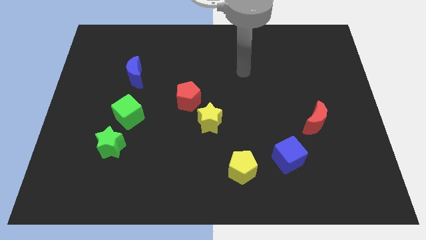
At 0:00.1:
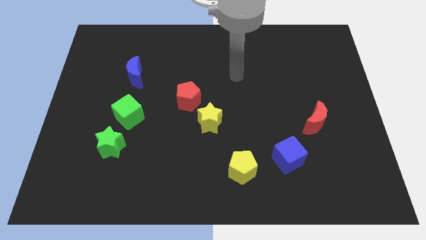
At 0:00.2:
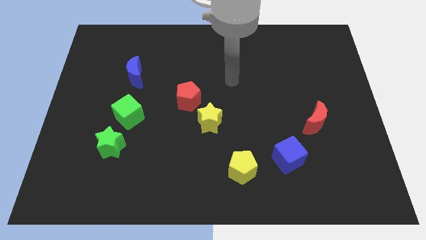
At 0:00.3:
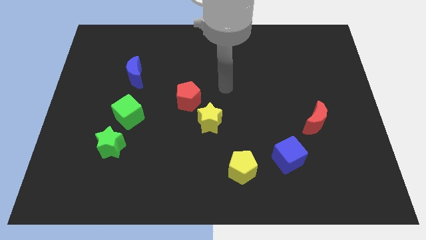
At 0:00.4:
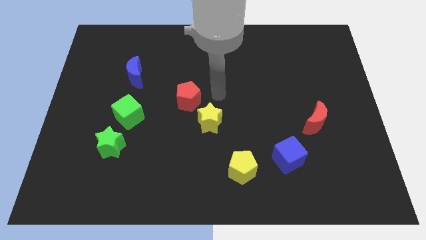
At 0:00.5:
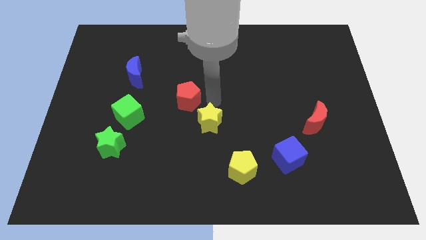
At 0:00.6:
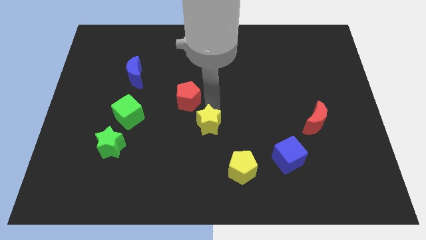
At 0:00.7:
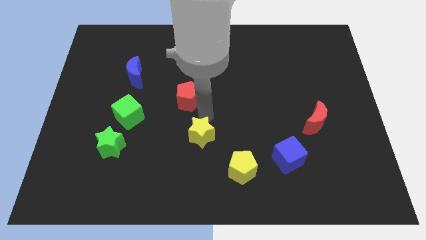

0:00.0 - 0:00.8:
pull the red pentagon apart from the yellow star

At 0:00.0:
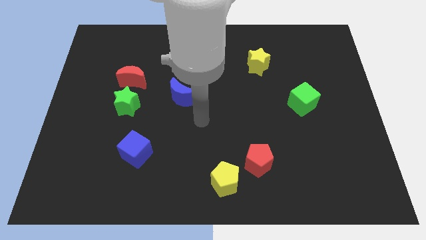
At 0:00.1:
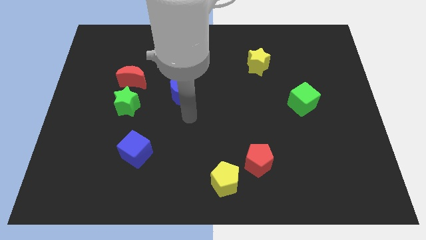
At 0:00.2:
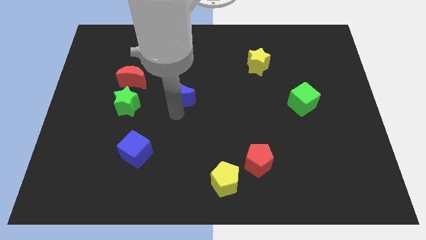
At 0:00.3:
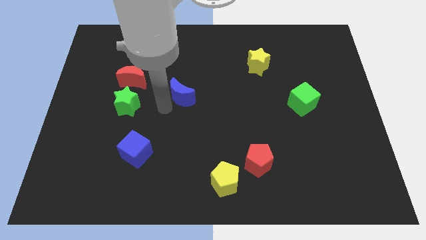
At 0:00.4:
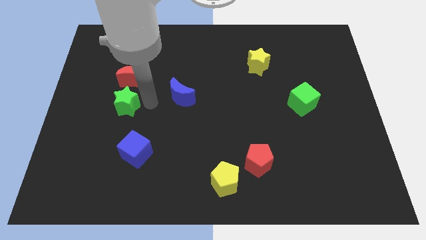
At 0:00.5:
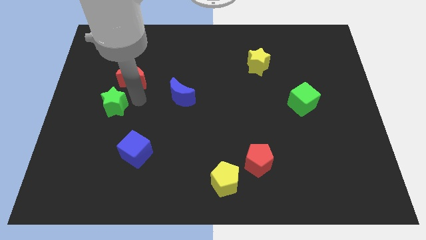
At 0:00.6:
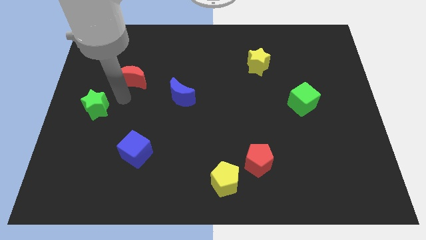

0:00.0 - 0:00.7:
pull the red moon apart from the green star

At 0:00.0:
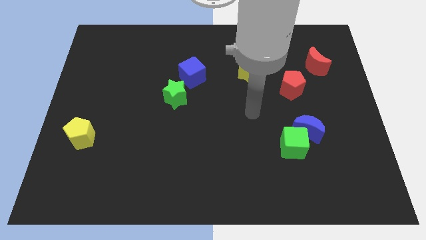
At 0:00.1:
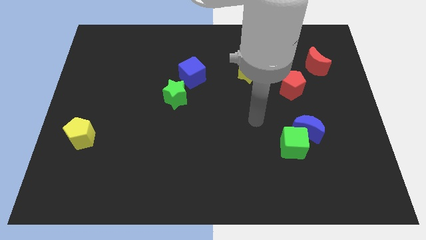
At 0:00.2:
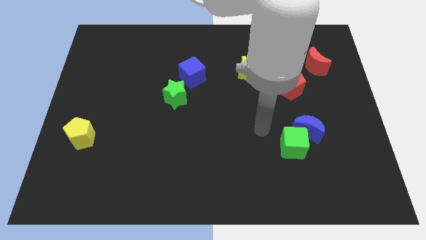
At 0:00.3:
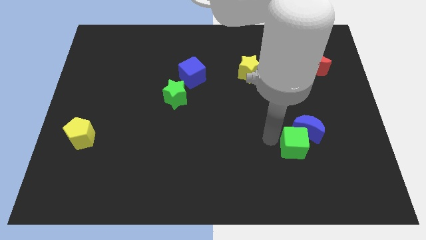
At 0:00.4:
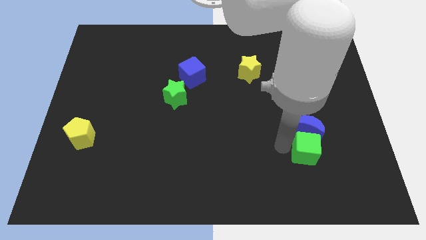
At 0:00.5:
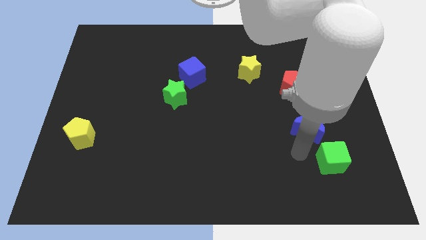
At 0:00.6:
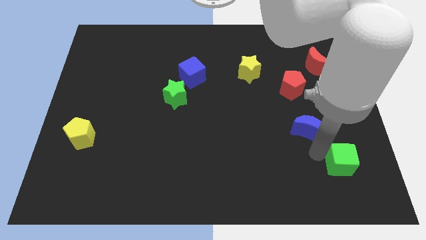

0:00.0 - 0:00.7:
move the blue moon away from the green cube

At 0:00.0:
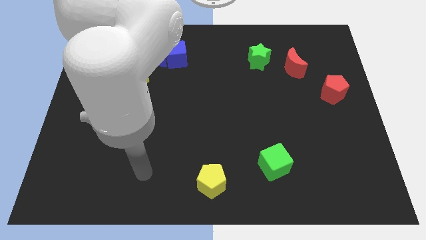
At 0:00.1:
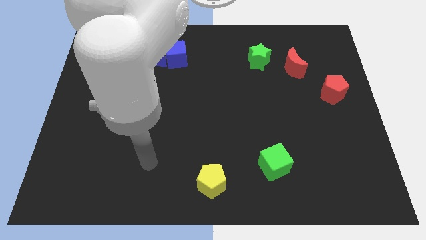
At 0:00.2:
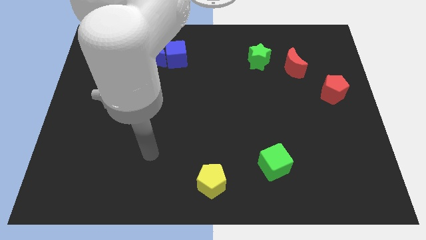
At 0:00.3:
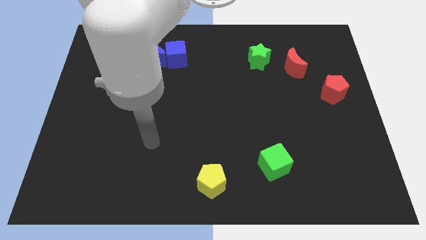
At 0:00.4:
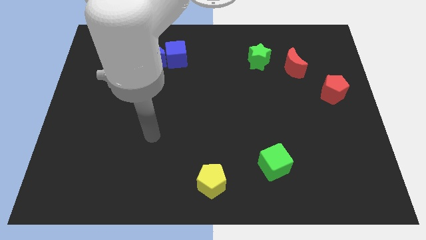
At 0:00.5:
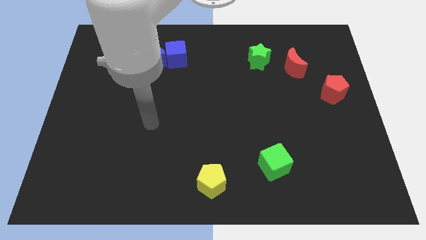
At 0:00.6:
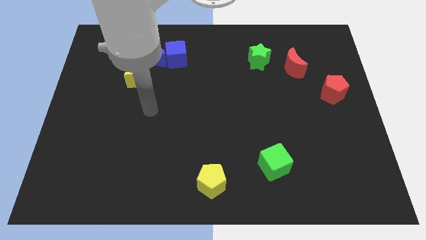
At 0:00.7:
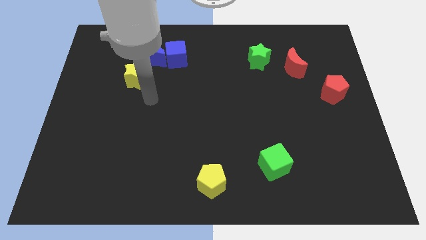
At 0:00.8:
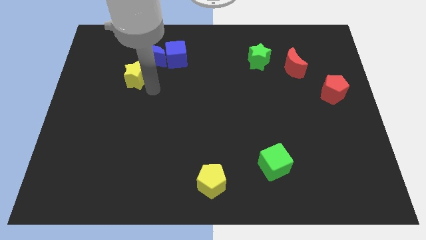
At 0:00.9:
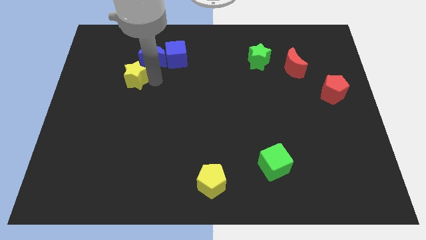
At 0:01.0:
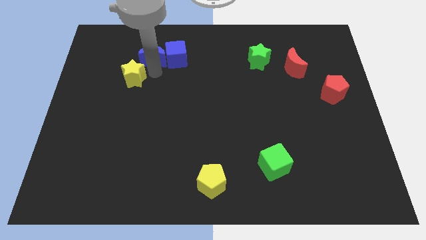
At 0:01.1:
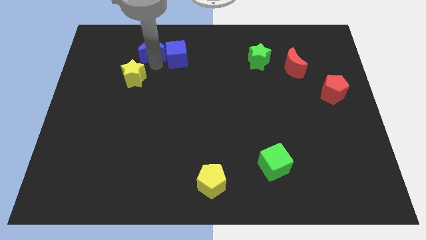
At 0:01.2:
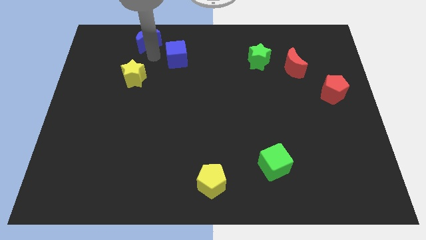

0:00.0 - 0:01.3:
separate the blue cube from the blue moon

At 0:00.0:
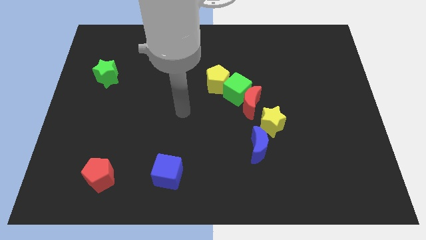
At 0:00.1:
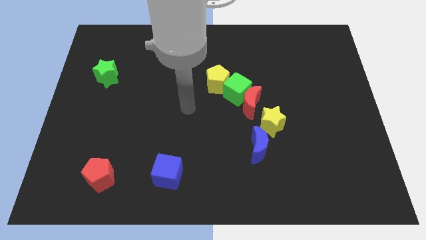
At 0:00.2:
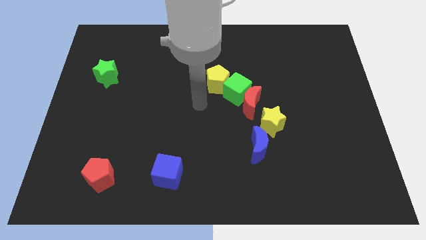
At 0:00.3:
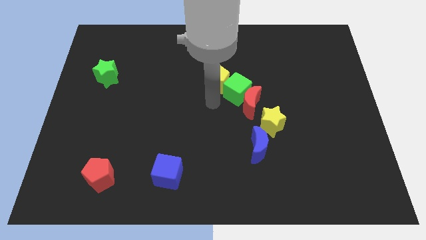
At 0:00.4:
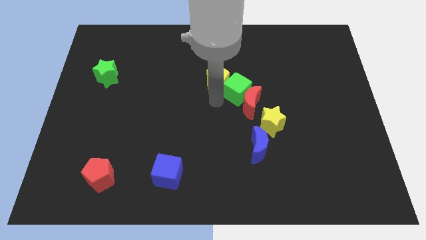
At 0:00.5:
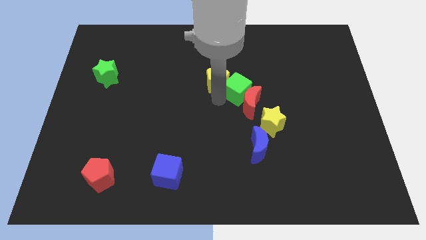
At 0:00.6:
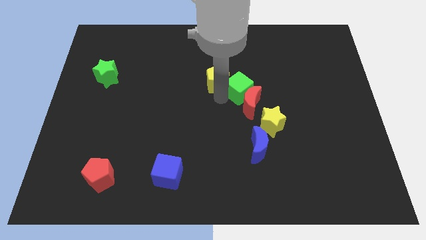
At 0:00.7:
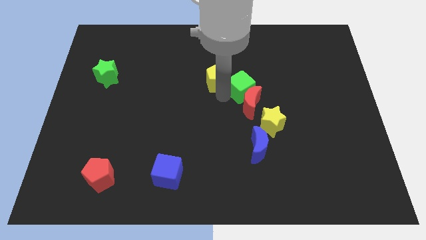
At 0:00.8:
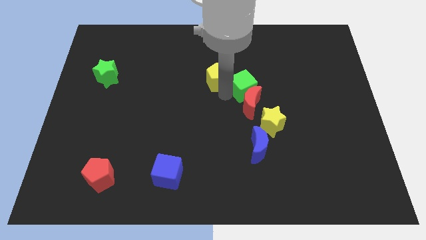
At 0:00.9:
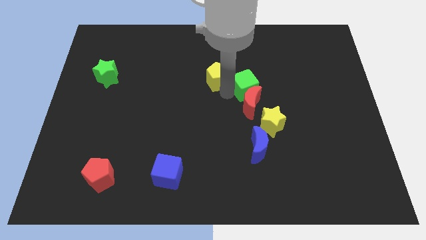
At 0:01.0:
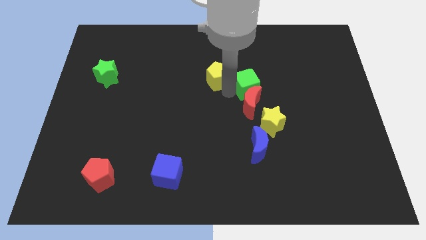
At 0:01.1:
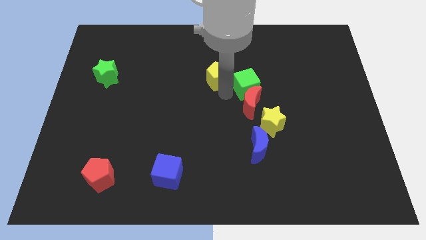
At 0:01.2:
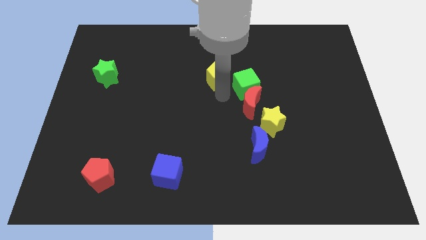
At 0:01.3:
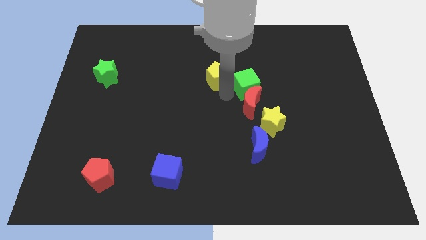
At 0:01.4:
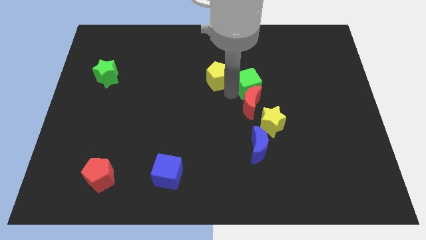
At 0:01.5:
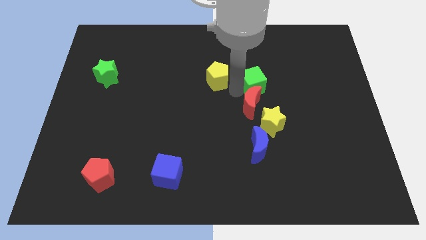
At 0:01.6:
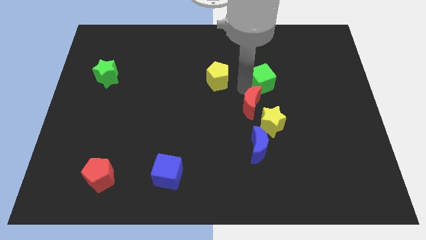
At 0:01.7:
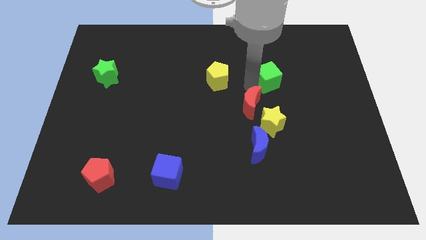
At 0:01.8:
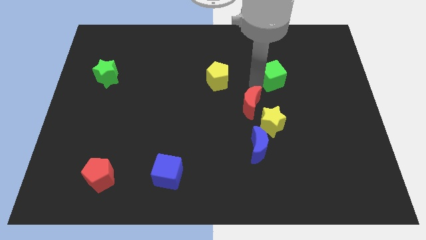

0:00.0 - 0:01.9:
separate the green cube from the red moon and yellow pentagon

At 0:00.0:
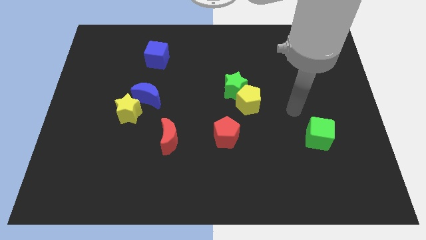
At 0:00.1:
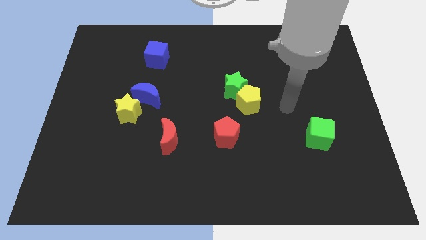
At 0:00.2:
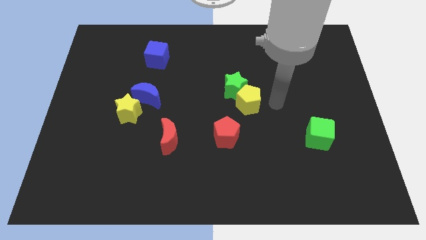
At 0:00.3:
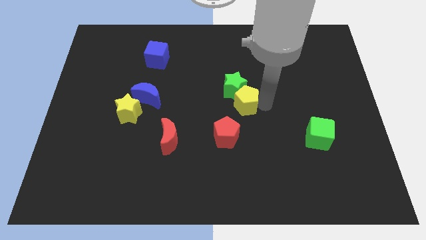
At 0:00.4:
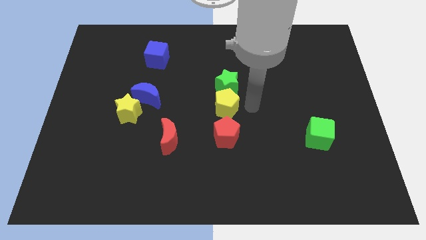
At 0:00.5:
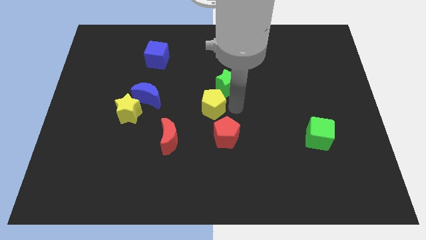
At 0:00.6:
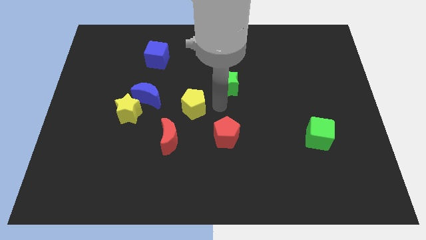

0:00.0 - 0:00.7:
move the green star away from the yellow pentagon

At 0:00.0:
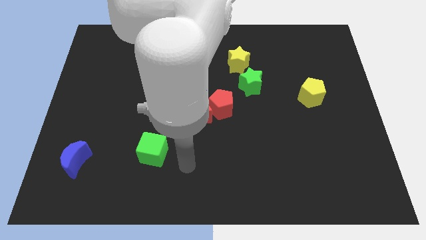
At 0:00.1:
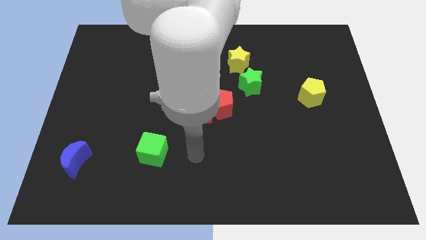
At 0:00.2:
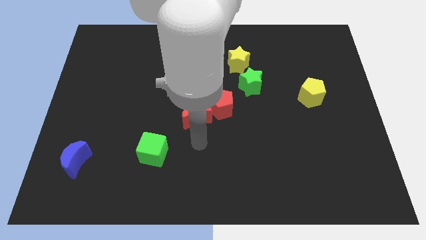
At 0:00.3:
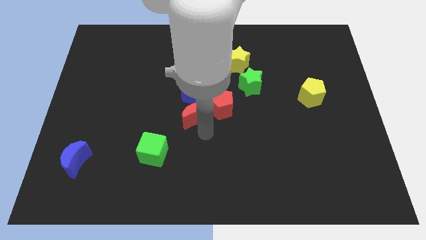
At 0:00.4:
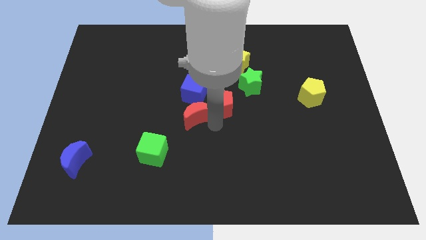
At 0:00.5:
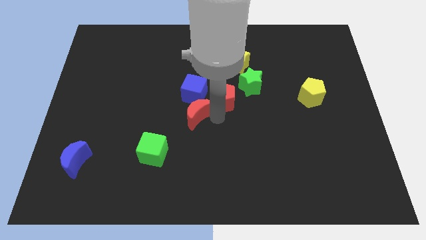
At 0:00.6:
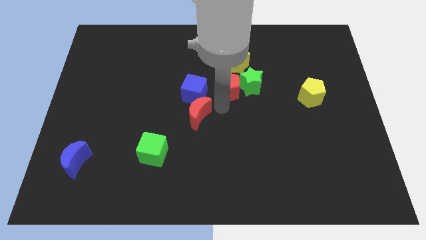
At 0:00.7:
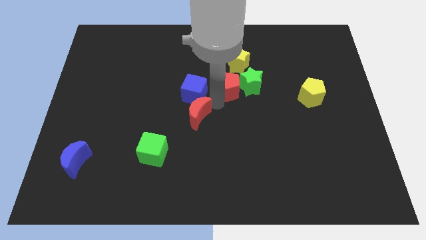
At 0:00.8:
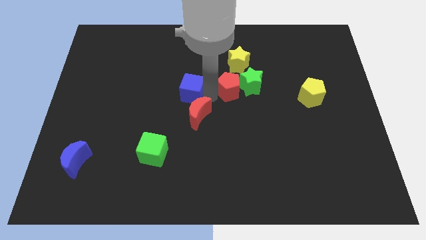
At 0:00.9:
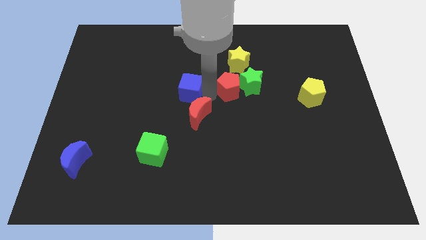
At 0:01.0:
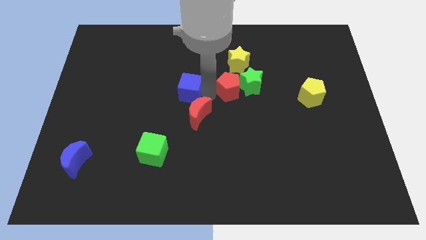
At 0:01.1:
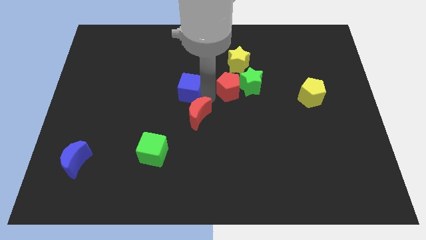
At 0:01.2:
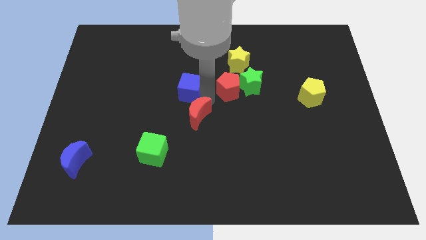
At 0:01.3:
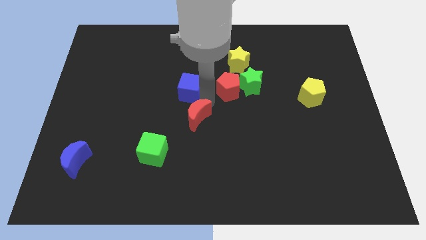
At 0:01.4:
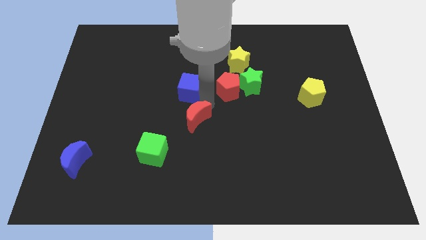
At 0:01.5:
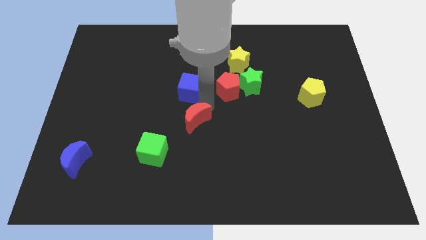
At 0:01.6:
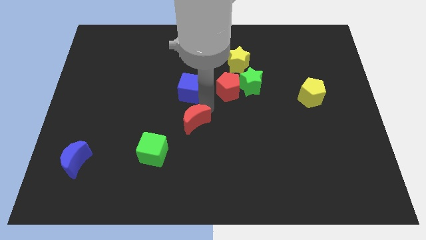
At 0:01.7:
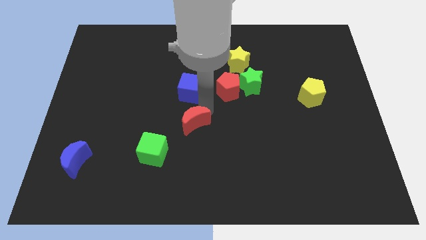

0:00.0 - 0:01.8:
pull the red moon apart from the red pentagon and blue cube

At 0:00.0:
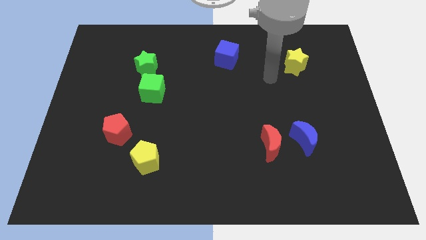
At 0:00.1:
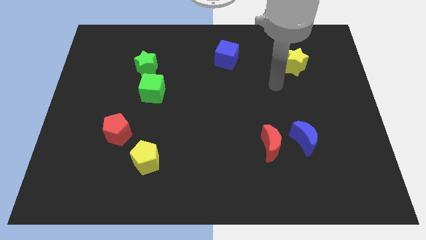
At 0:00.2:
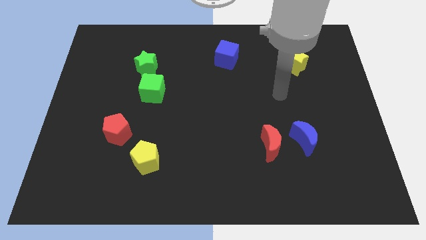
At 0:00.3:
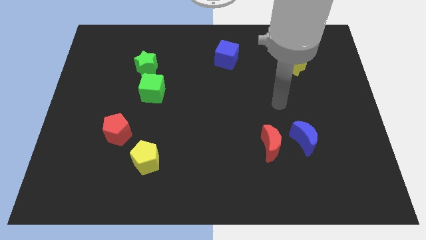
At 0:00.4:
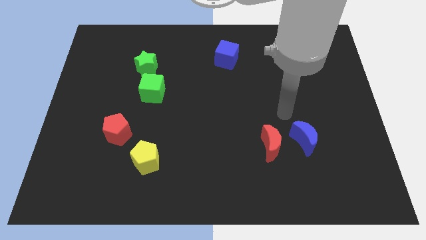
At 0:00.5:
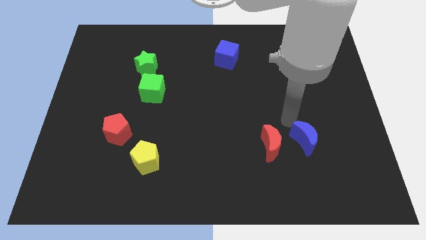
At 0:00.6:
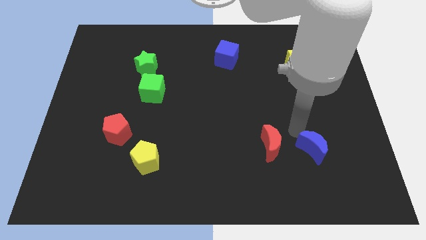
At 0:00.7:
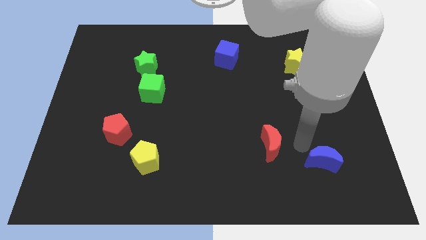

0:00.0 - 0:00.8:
move the red moon away from the blue moon

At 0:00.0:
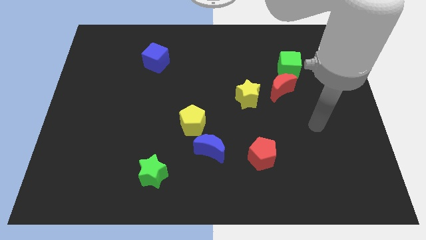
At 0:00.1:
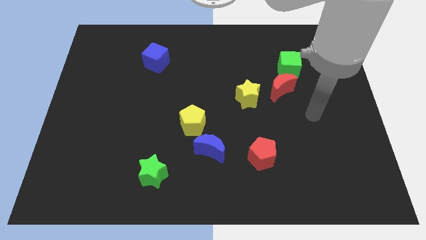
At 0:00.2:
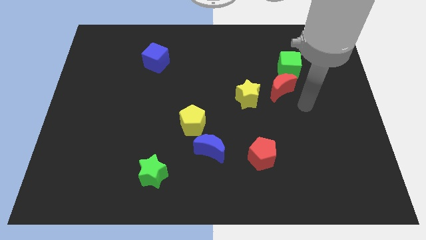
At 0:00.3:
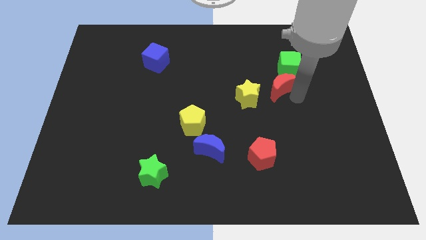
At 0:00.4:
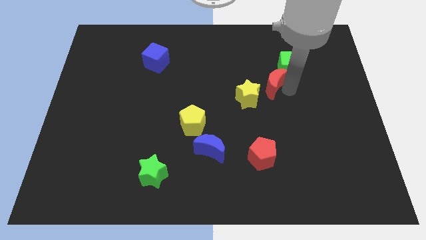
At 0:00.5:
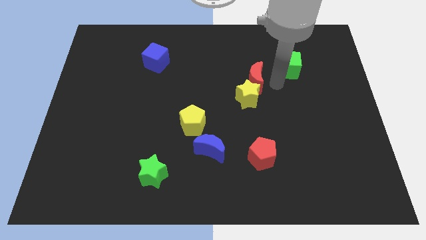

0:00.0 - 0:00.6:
pull the green cube apart from the red moon
